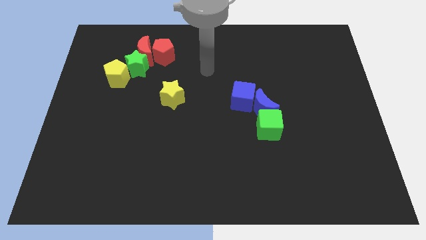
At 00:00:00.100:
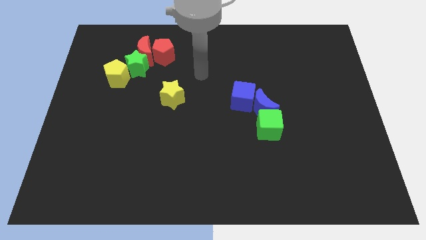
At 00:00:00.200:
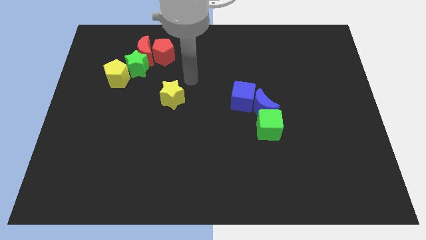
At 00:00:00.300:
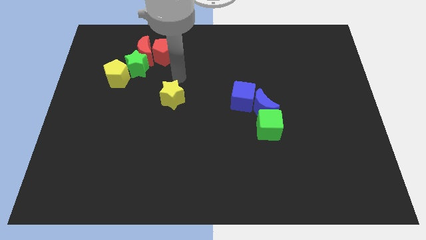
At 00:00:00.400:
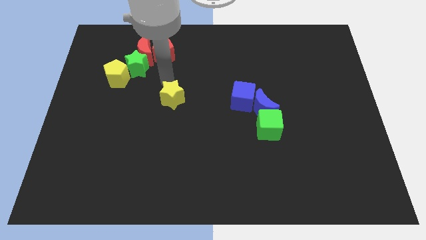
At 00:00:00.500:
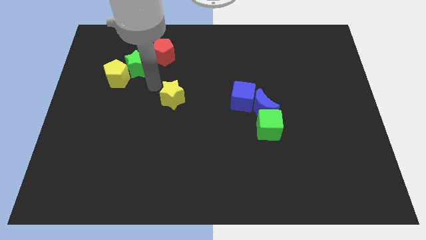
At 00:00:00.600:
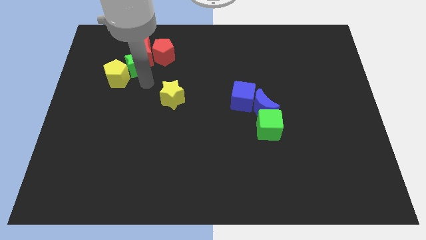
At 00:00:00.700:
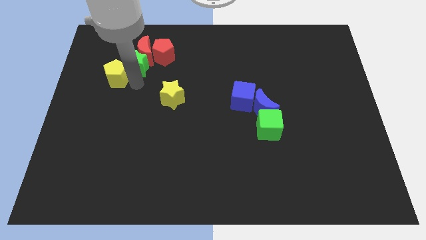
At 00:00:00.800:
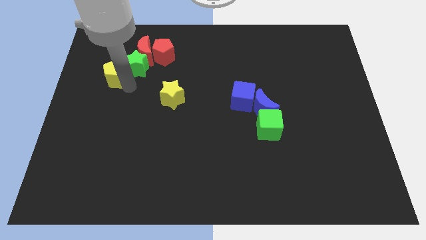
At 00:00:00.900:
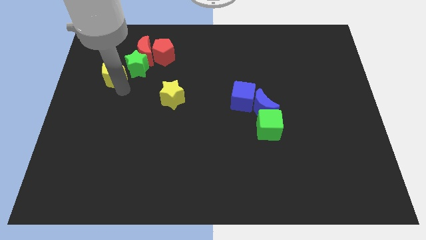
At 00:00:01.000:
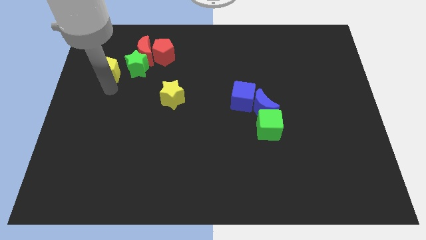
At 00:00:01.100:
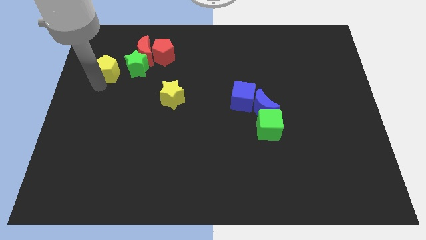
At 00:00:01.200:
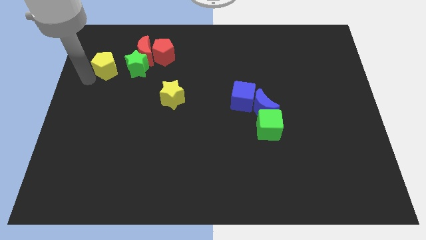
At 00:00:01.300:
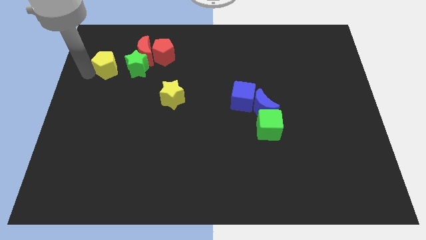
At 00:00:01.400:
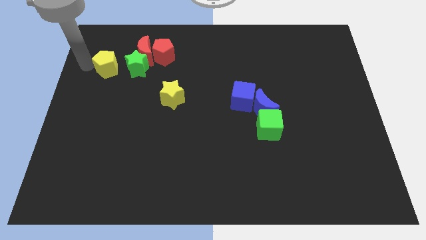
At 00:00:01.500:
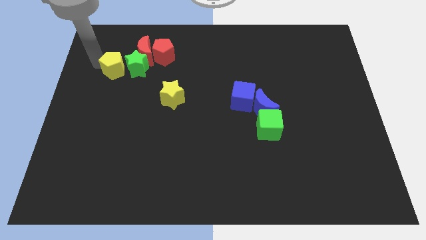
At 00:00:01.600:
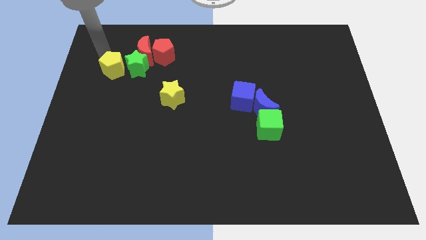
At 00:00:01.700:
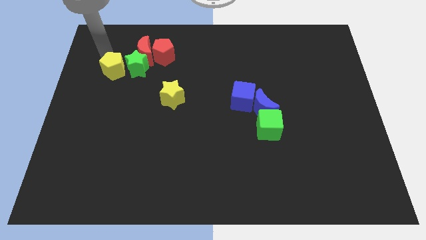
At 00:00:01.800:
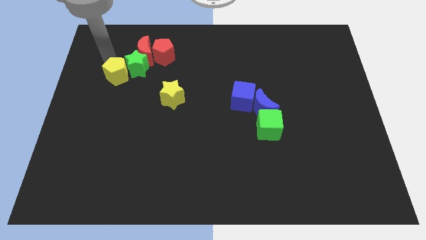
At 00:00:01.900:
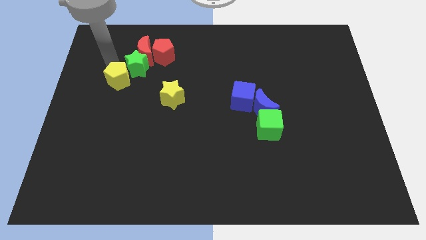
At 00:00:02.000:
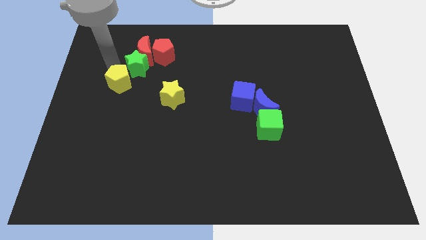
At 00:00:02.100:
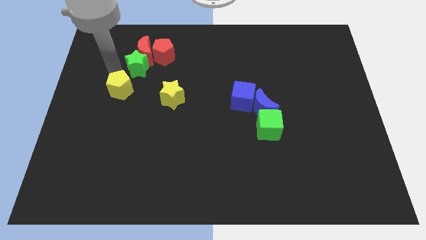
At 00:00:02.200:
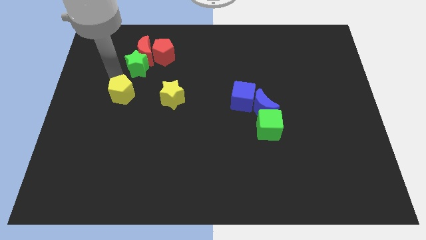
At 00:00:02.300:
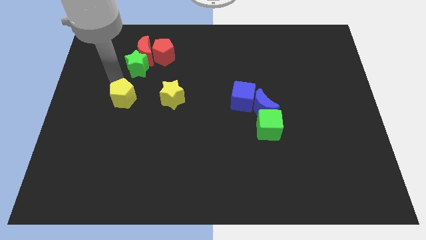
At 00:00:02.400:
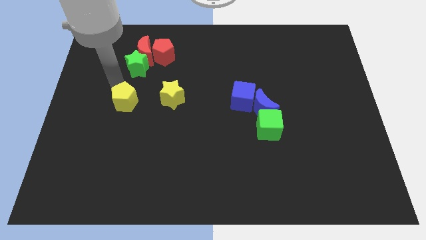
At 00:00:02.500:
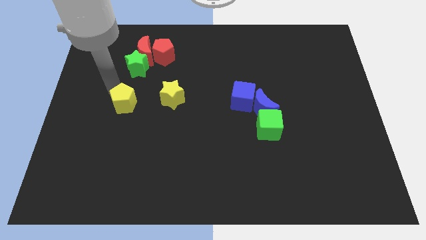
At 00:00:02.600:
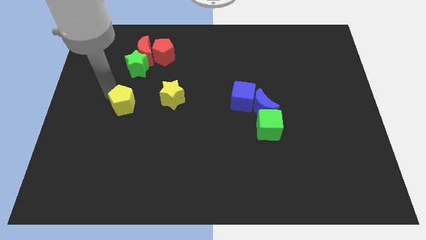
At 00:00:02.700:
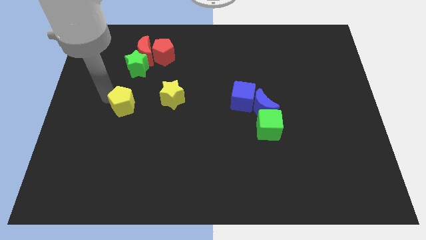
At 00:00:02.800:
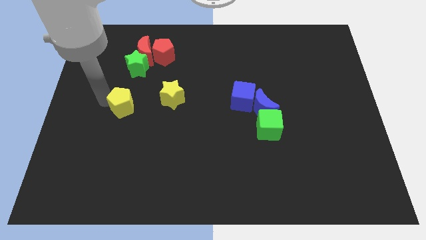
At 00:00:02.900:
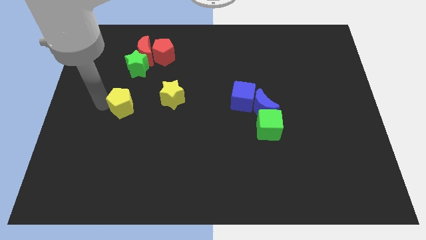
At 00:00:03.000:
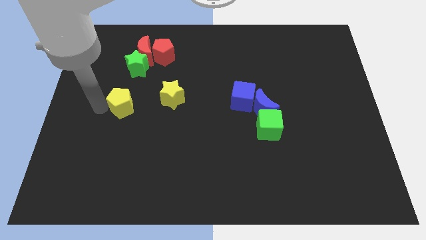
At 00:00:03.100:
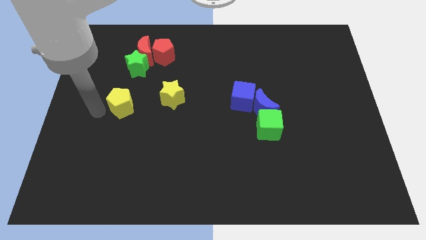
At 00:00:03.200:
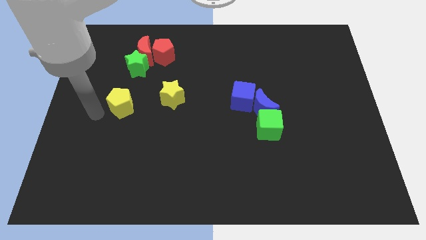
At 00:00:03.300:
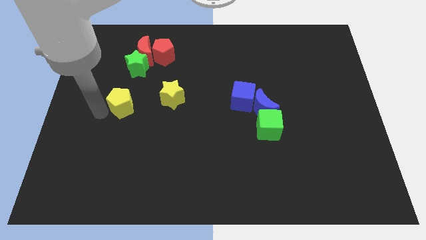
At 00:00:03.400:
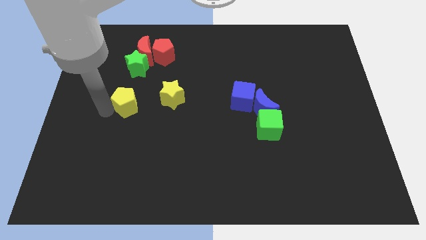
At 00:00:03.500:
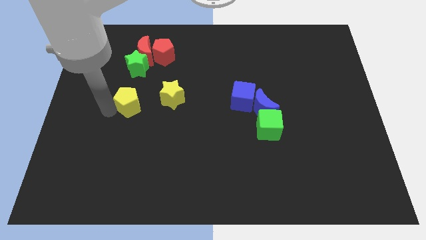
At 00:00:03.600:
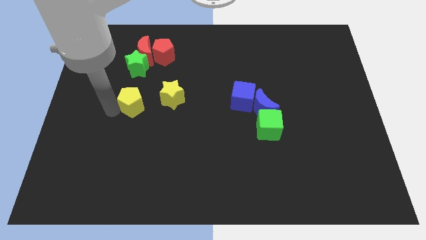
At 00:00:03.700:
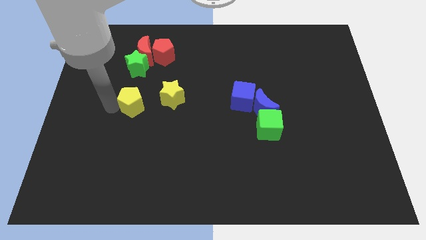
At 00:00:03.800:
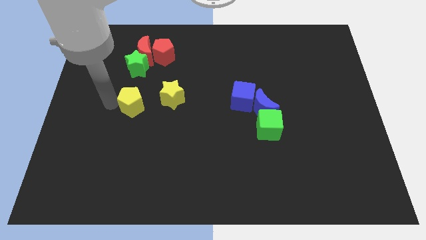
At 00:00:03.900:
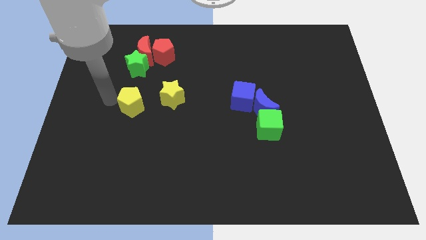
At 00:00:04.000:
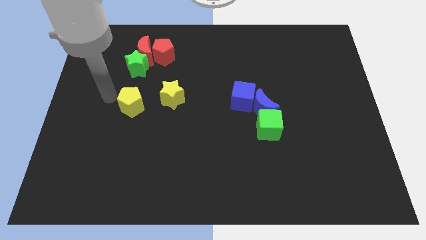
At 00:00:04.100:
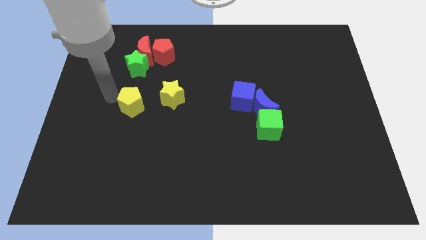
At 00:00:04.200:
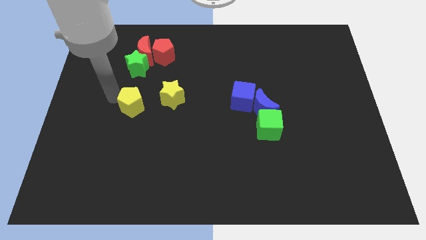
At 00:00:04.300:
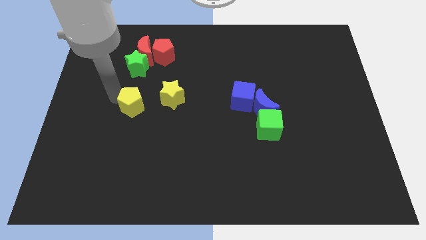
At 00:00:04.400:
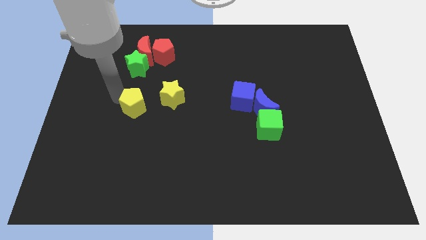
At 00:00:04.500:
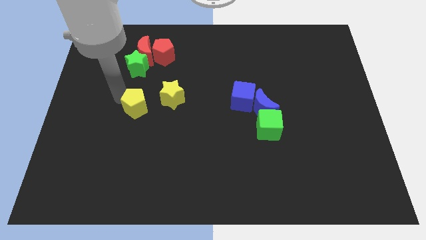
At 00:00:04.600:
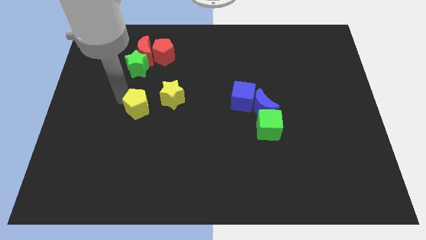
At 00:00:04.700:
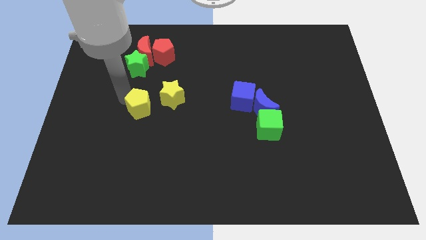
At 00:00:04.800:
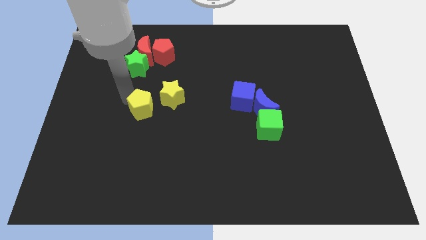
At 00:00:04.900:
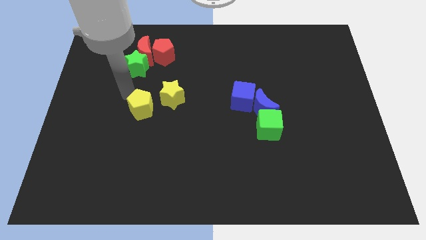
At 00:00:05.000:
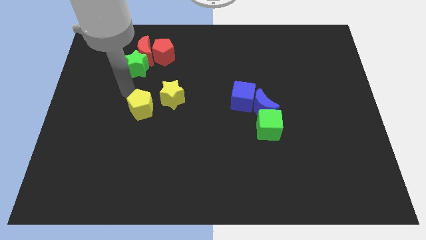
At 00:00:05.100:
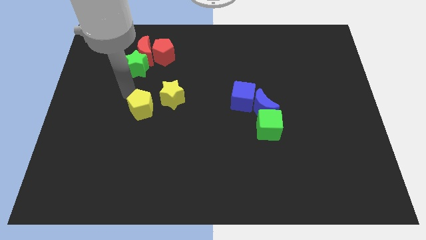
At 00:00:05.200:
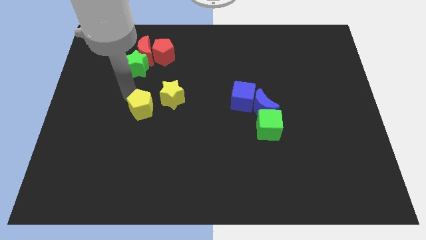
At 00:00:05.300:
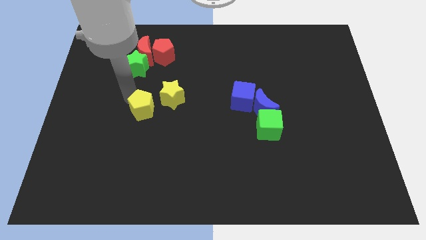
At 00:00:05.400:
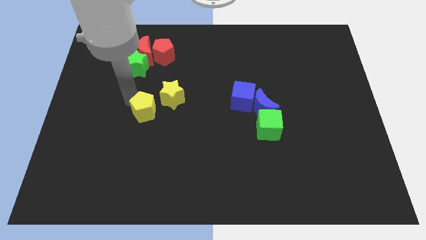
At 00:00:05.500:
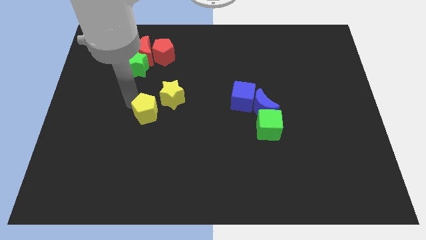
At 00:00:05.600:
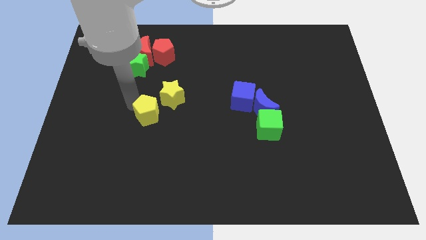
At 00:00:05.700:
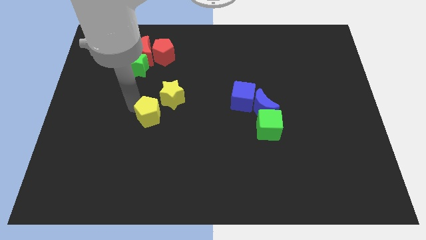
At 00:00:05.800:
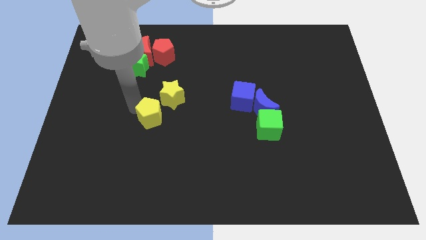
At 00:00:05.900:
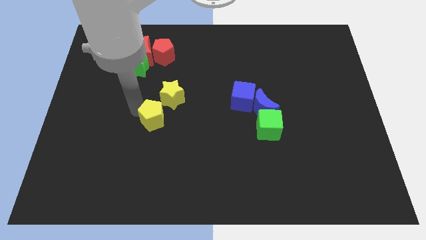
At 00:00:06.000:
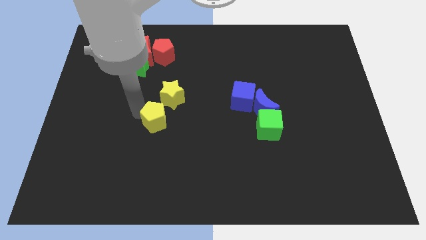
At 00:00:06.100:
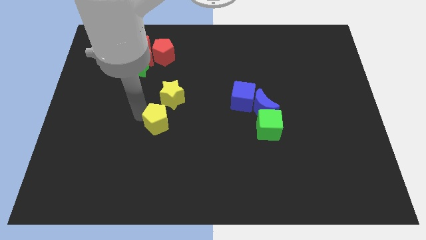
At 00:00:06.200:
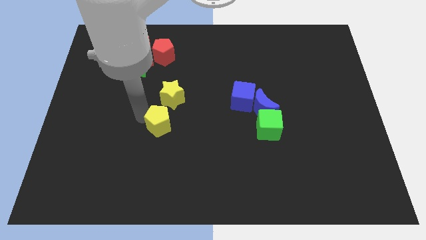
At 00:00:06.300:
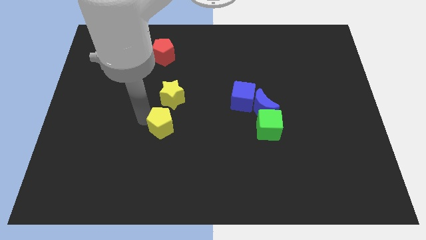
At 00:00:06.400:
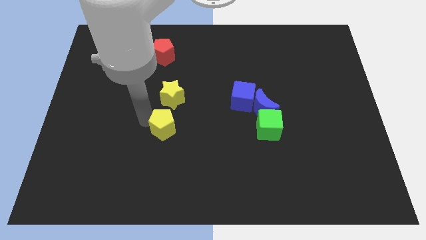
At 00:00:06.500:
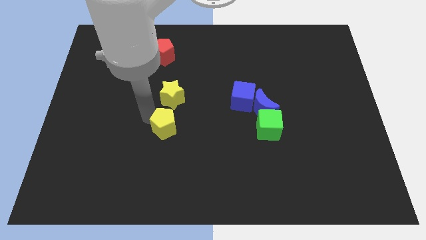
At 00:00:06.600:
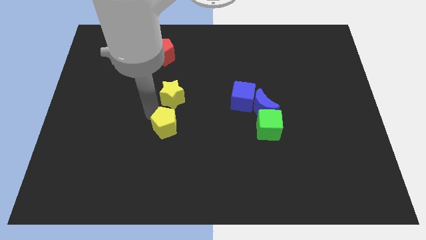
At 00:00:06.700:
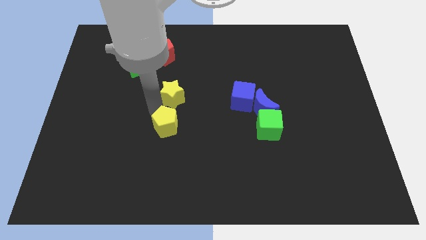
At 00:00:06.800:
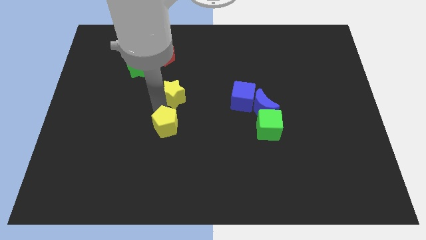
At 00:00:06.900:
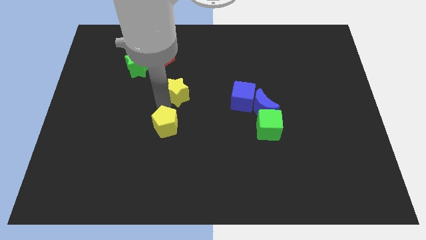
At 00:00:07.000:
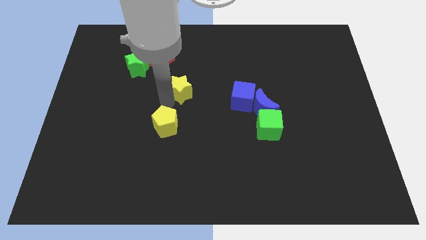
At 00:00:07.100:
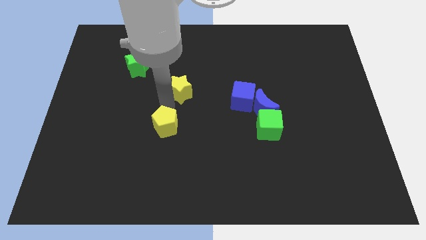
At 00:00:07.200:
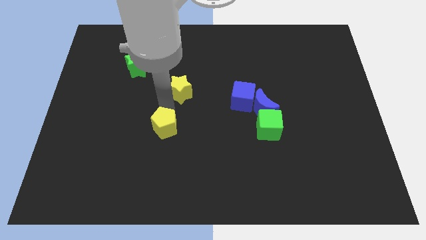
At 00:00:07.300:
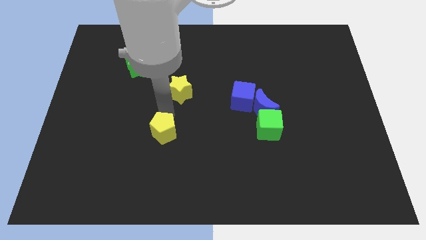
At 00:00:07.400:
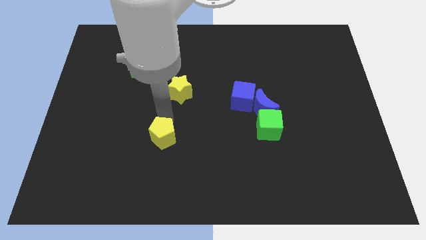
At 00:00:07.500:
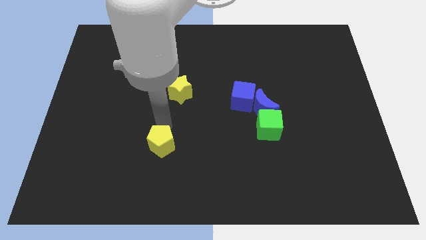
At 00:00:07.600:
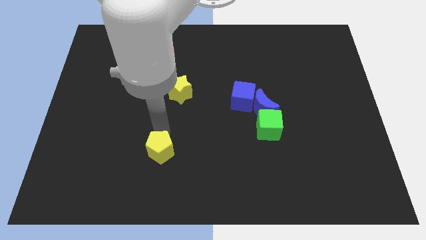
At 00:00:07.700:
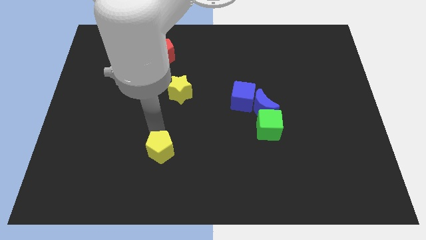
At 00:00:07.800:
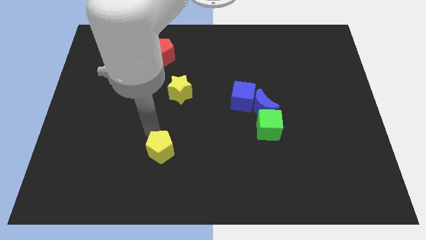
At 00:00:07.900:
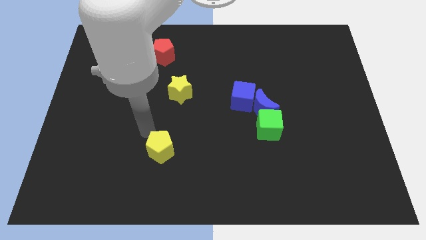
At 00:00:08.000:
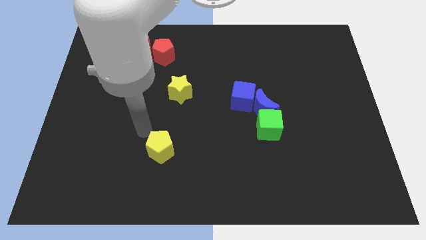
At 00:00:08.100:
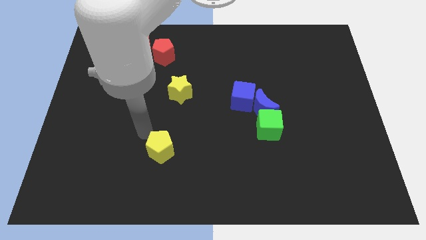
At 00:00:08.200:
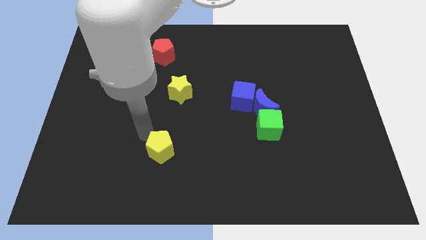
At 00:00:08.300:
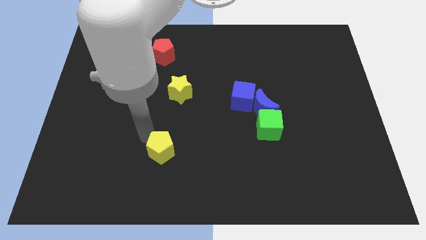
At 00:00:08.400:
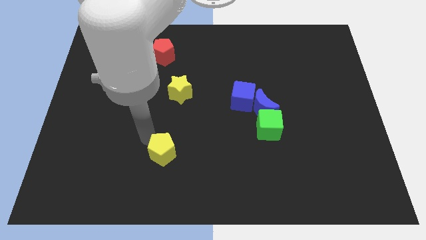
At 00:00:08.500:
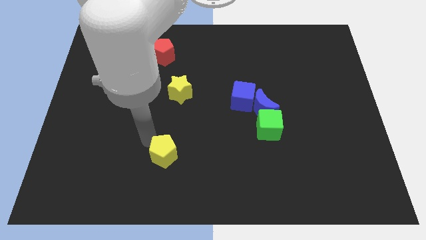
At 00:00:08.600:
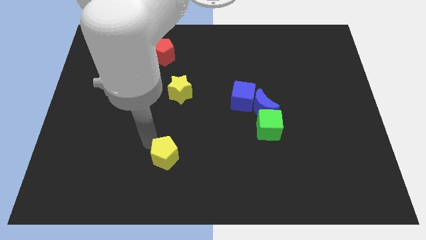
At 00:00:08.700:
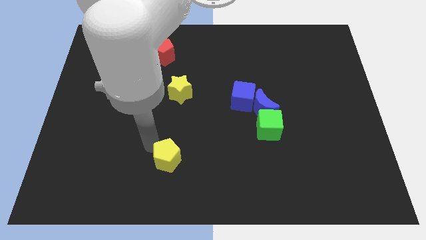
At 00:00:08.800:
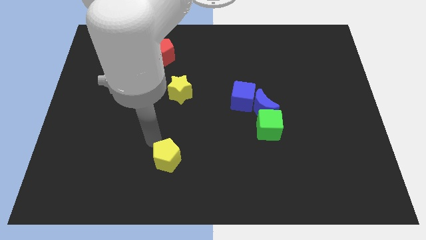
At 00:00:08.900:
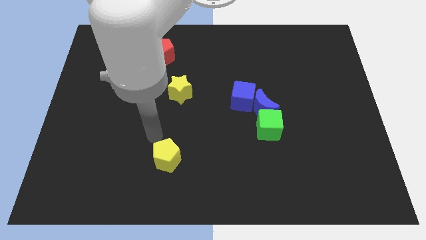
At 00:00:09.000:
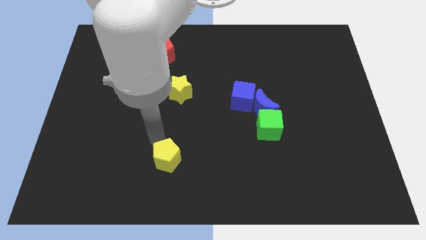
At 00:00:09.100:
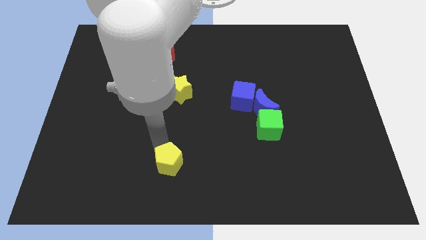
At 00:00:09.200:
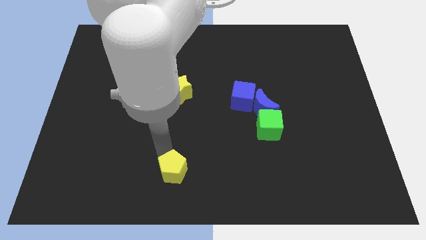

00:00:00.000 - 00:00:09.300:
move the yellow pentagon to the bottom side
